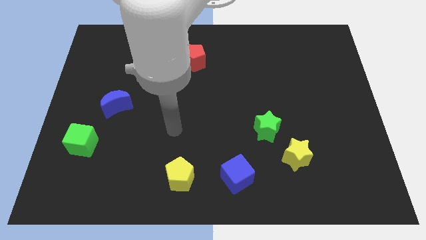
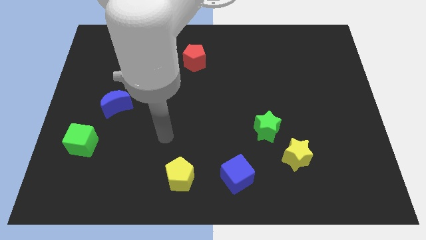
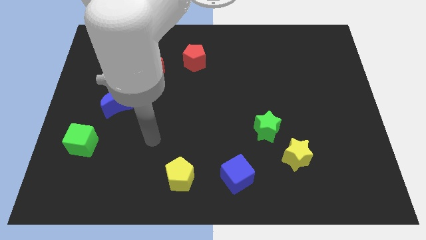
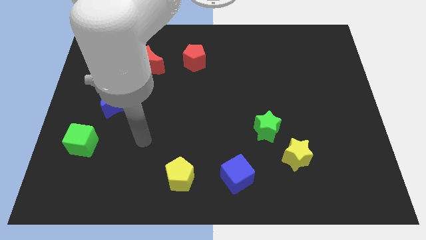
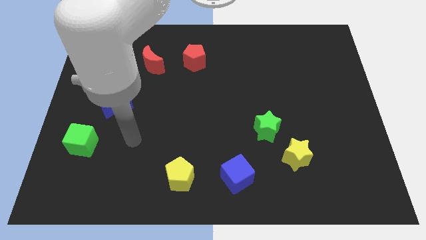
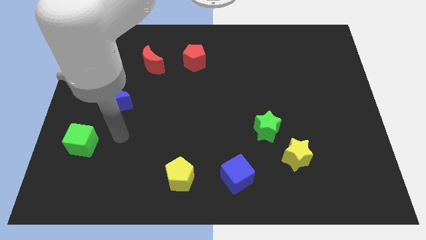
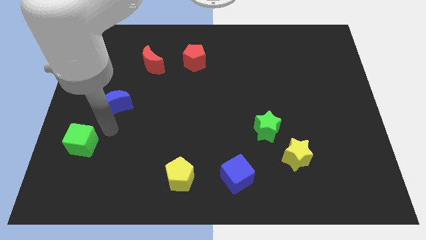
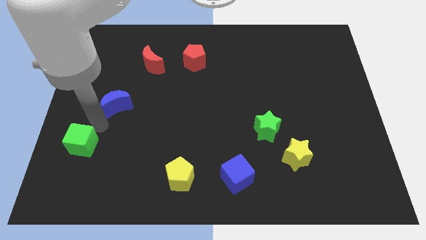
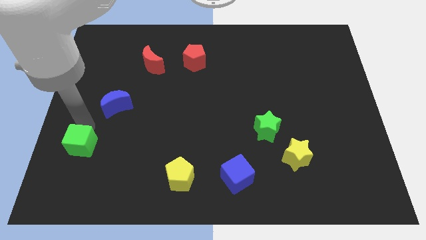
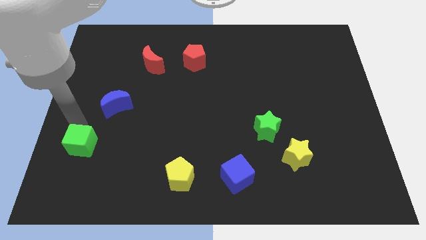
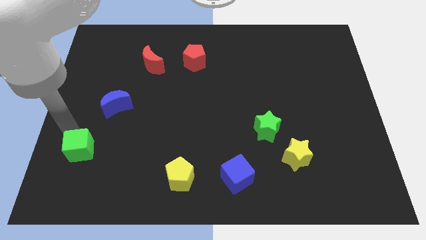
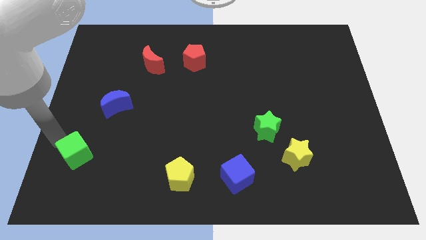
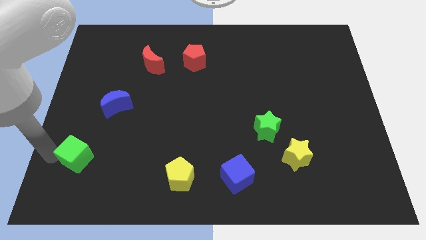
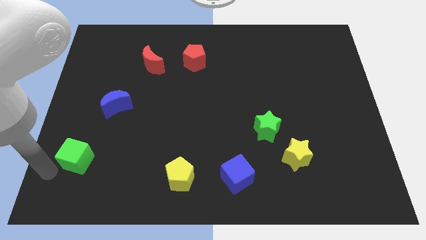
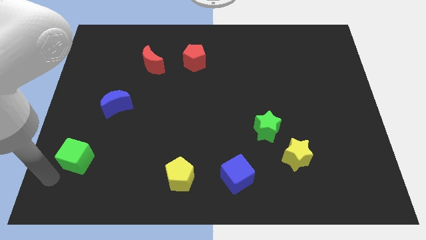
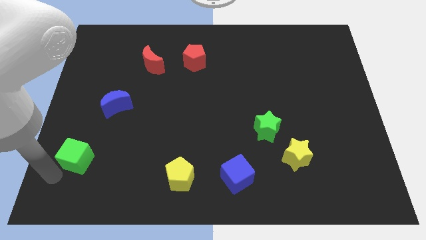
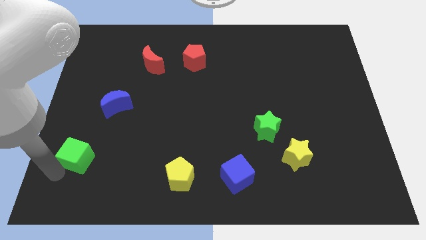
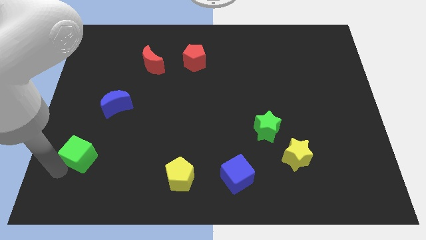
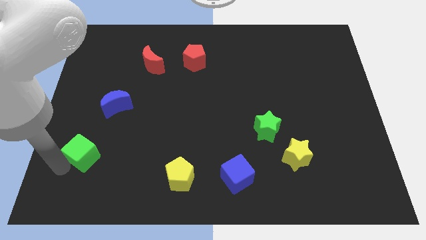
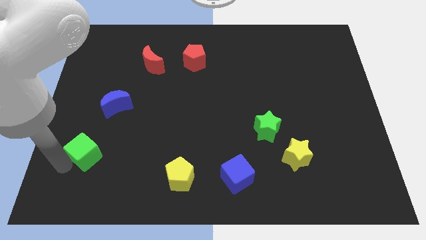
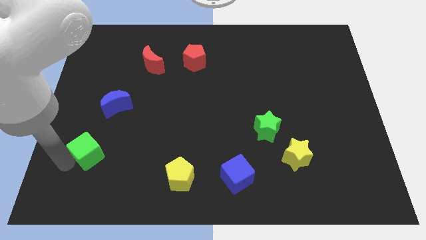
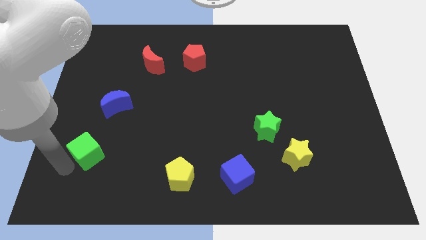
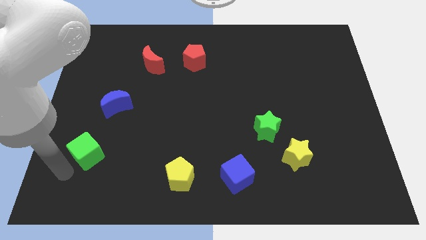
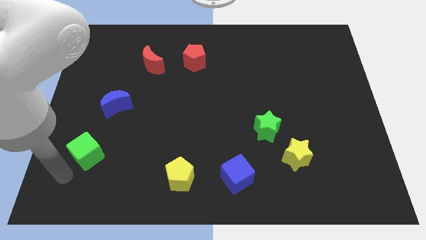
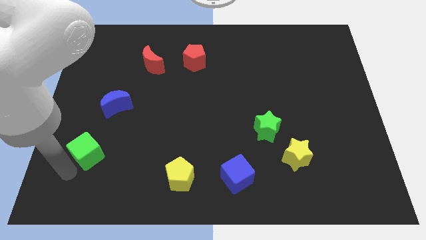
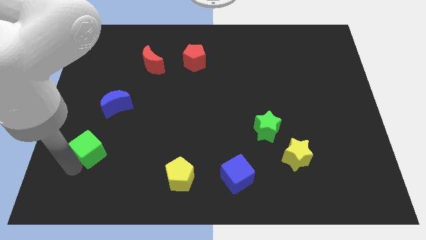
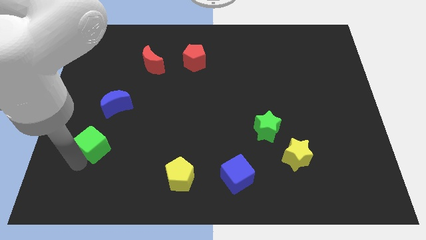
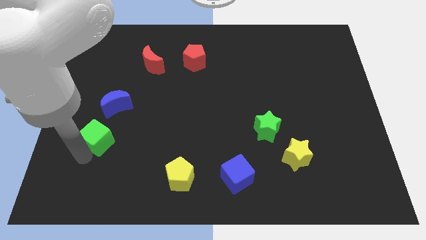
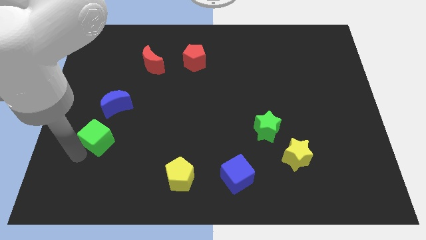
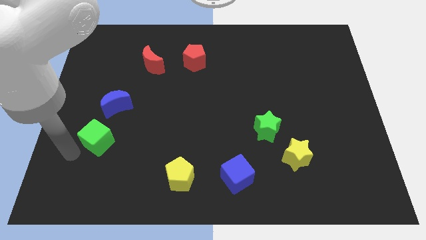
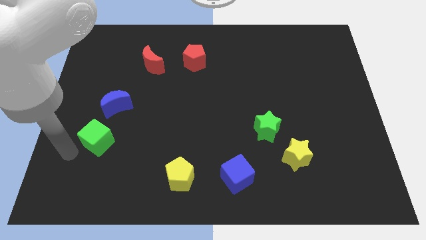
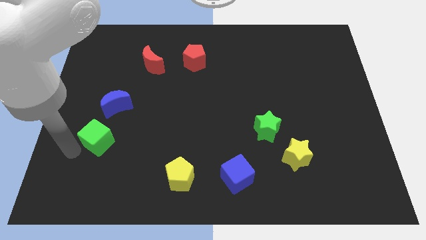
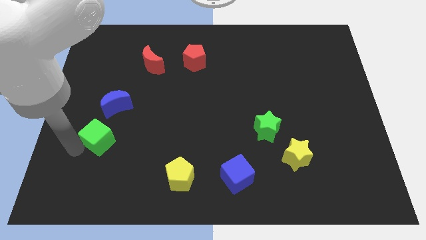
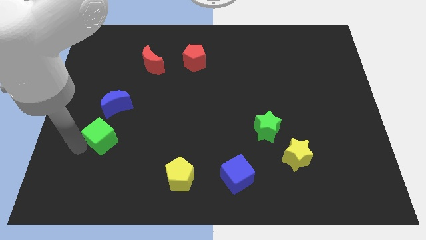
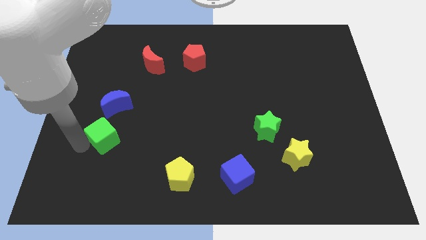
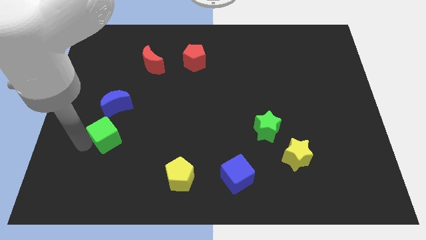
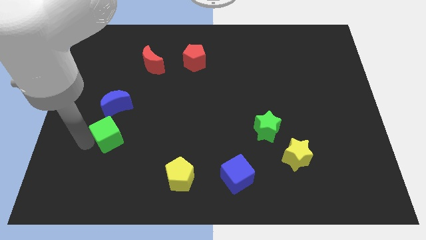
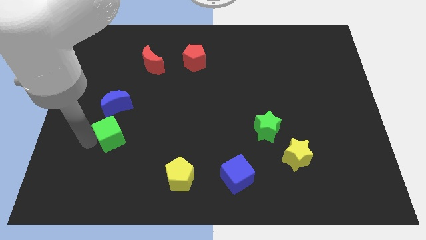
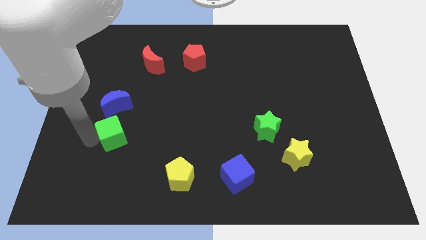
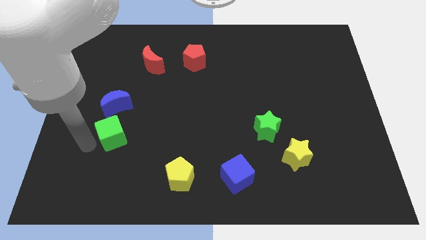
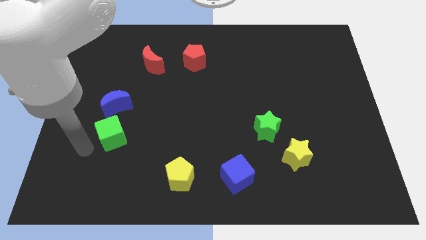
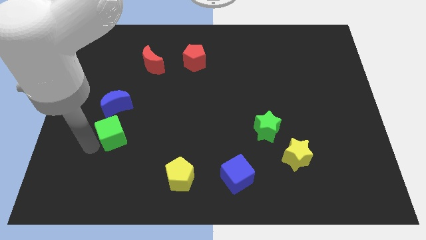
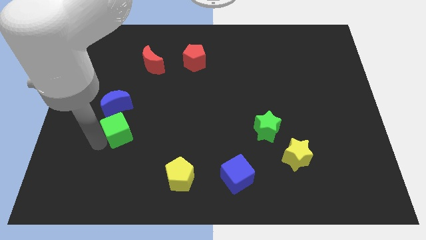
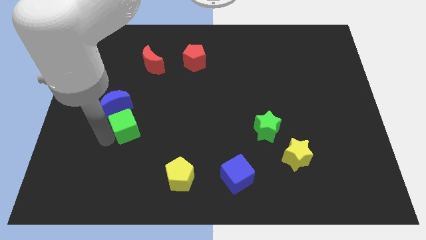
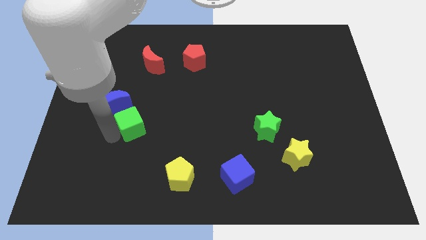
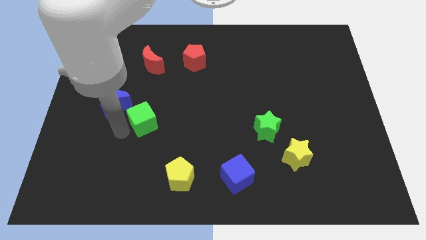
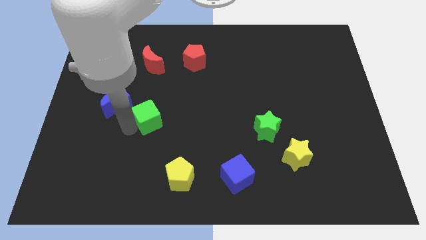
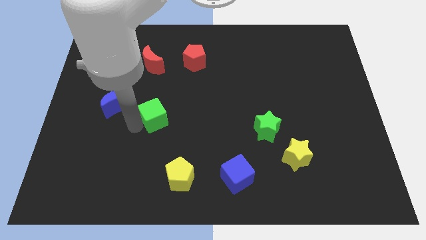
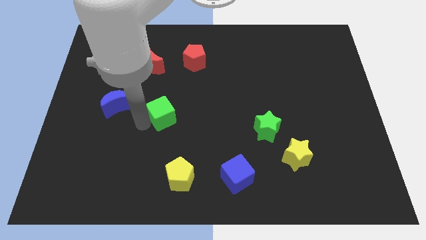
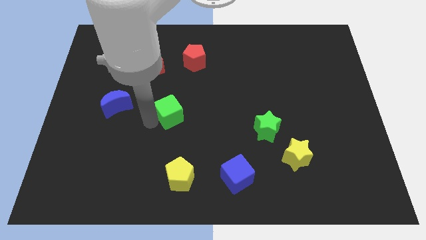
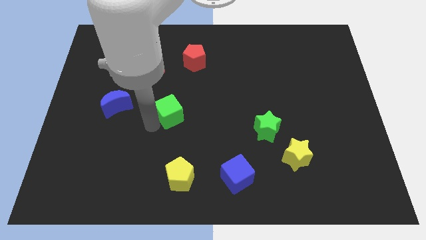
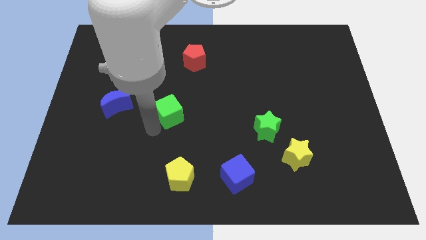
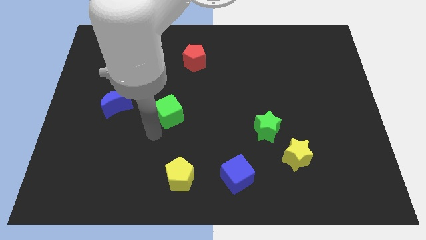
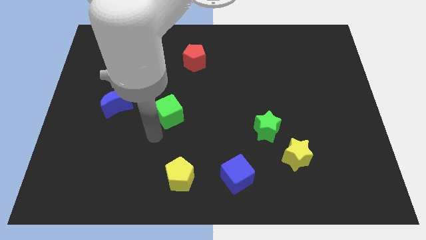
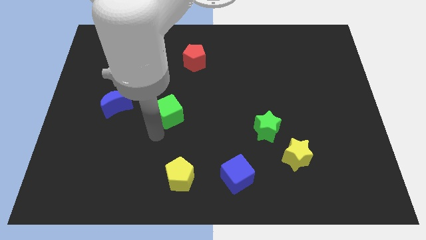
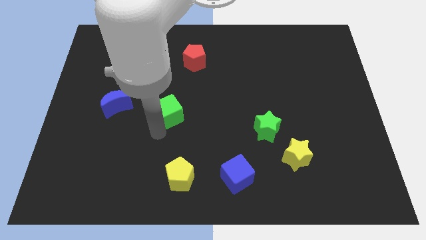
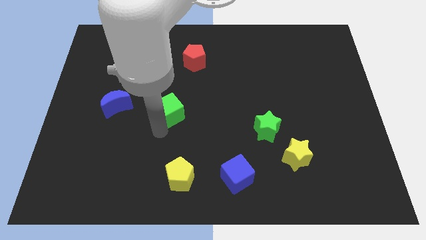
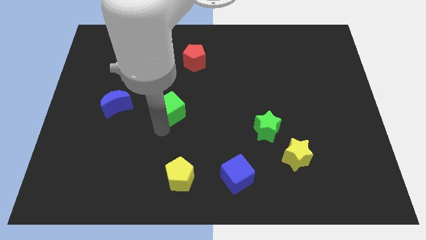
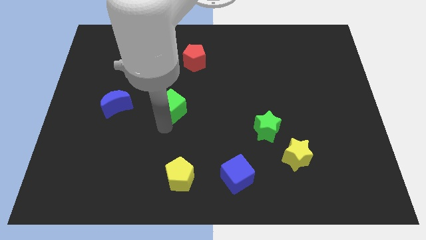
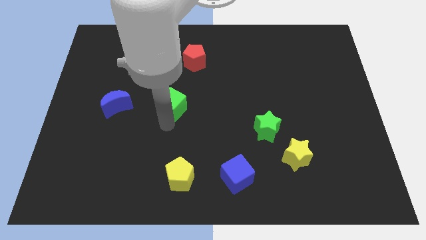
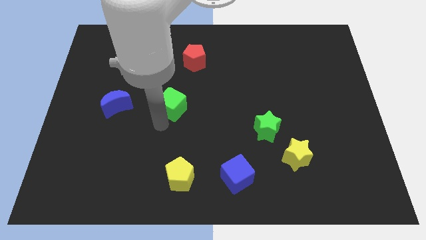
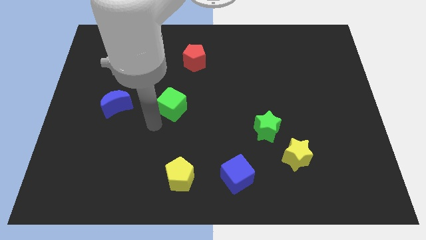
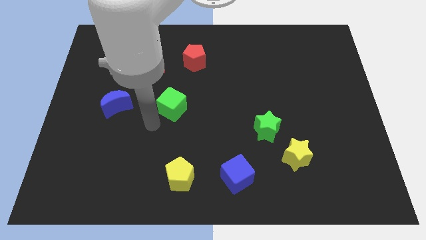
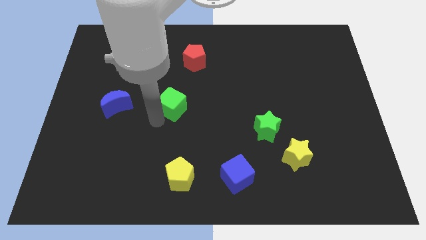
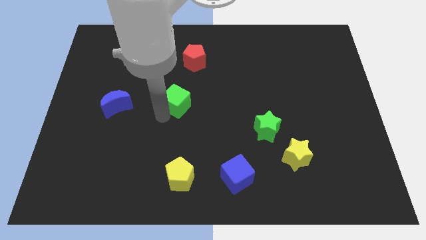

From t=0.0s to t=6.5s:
push the green cube below the red pentagon
